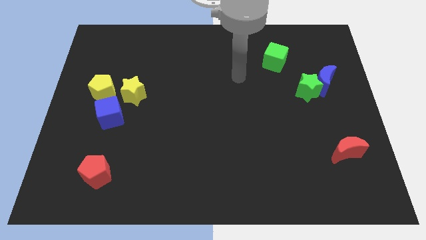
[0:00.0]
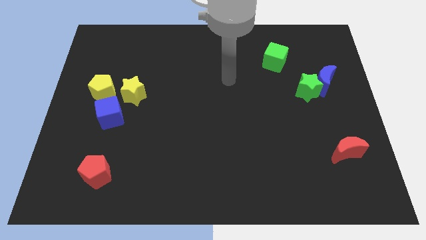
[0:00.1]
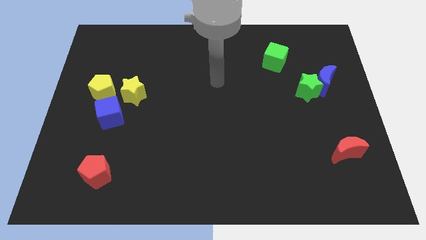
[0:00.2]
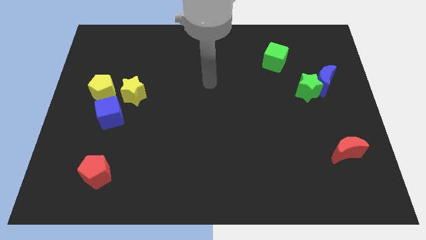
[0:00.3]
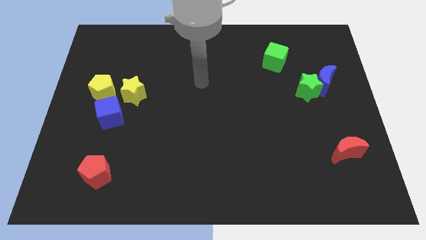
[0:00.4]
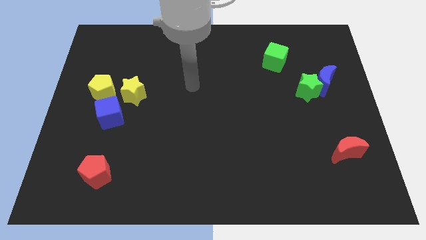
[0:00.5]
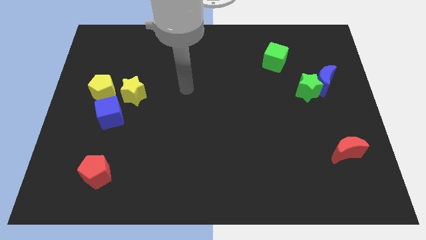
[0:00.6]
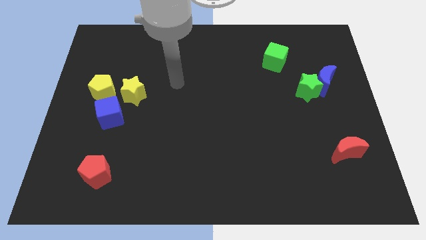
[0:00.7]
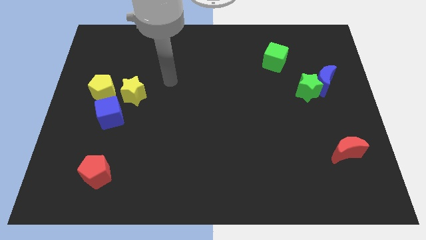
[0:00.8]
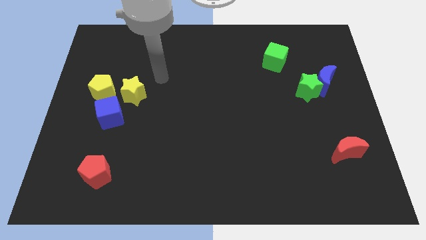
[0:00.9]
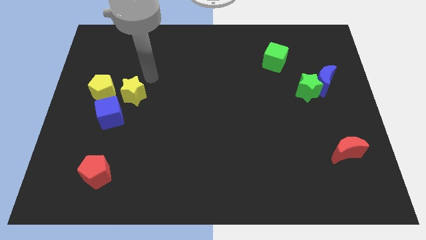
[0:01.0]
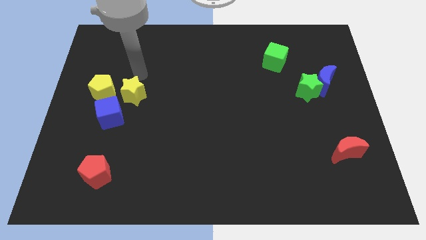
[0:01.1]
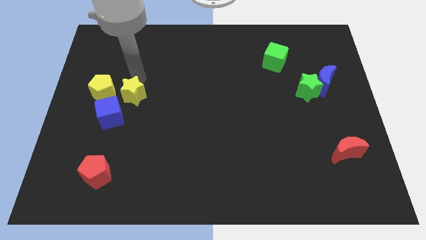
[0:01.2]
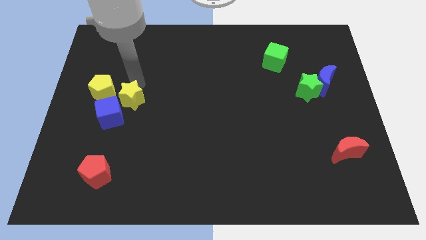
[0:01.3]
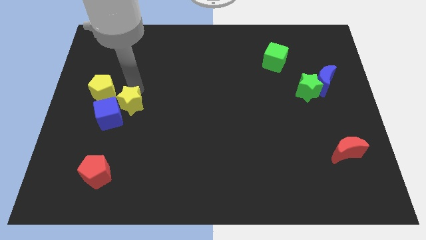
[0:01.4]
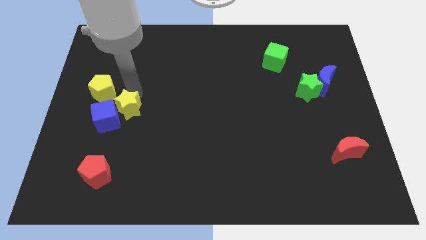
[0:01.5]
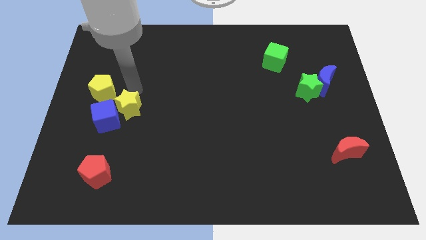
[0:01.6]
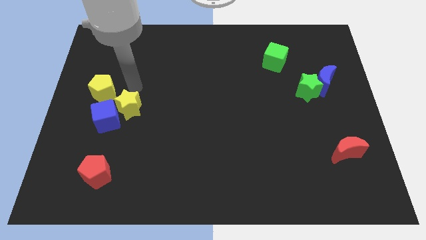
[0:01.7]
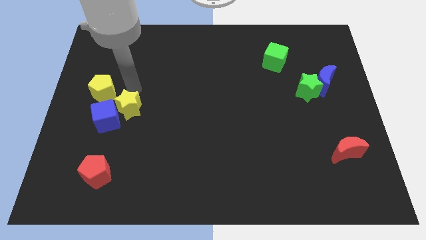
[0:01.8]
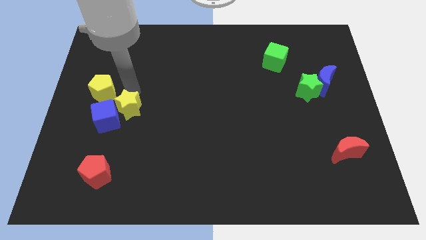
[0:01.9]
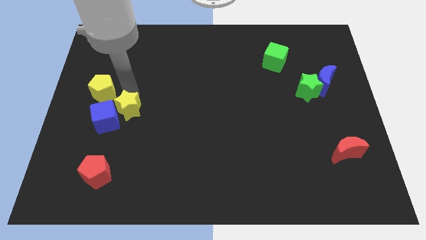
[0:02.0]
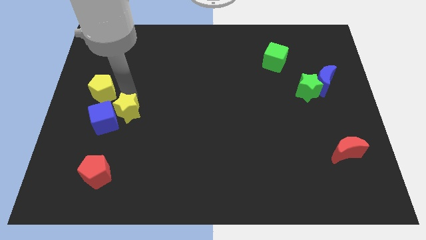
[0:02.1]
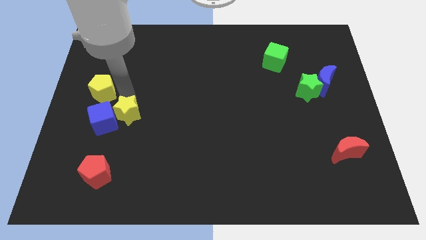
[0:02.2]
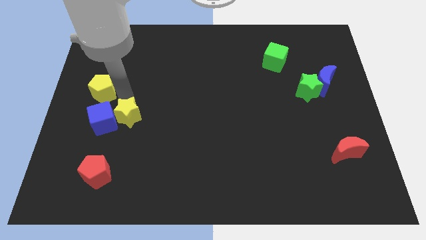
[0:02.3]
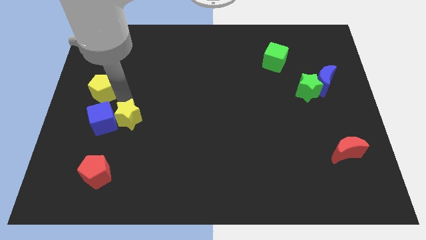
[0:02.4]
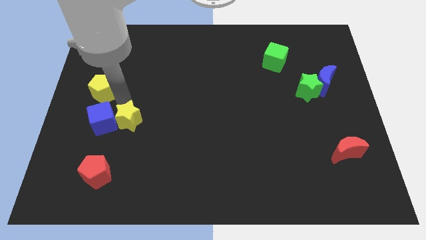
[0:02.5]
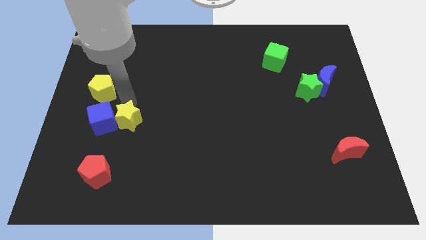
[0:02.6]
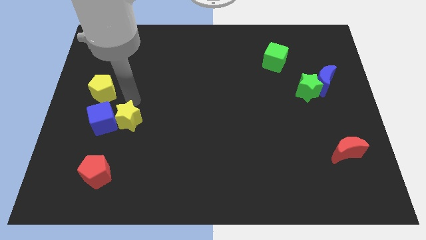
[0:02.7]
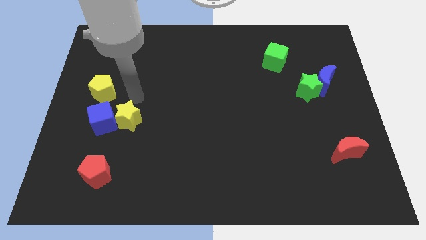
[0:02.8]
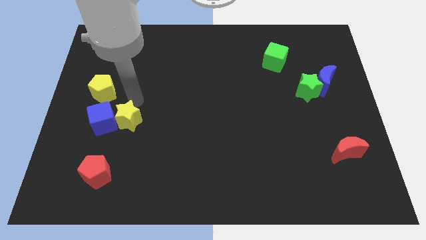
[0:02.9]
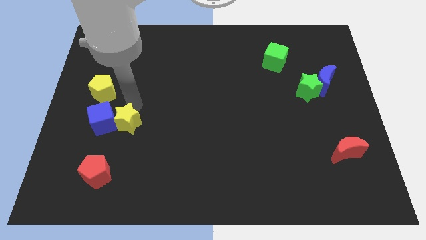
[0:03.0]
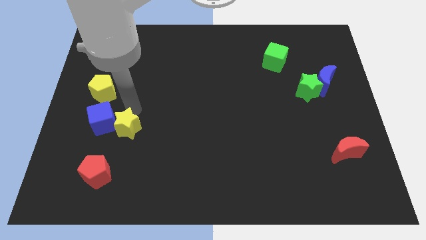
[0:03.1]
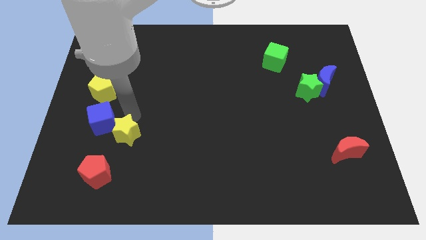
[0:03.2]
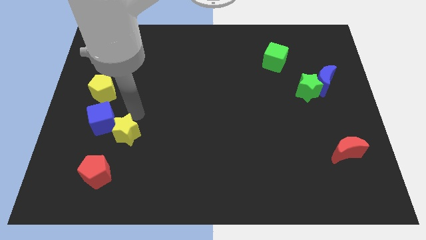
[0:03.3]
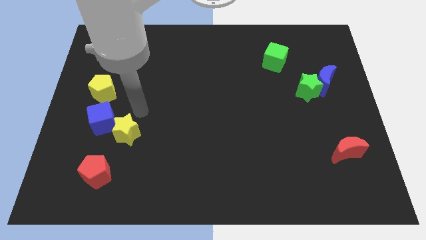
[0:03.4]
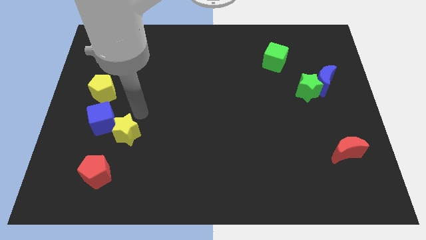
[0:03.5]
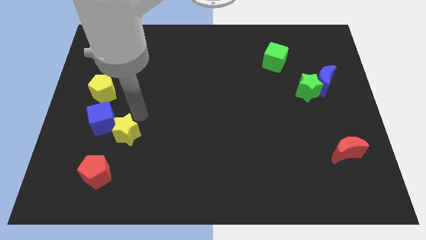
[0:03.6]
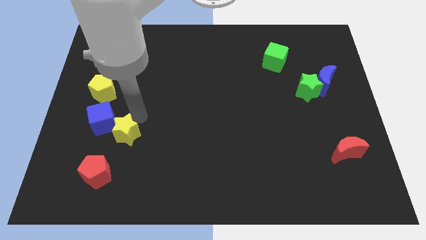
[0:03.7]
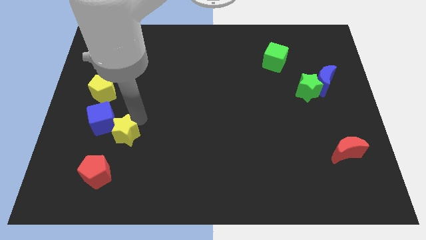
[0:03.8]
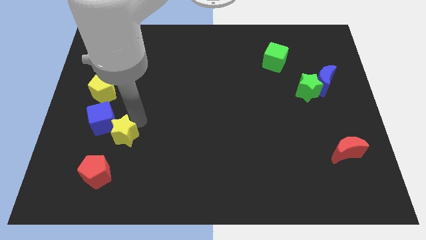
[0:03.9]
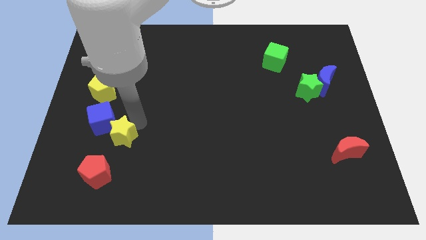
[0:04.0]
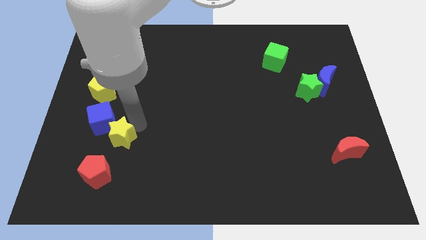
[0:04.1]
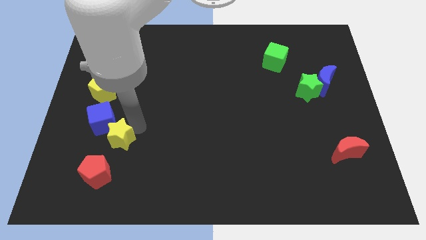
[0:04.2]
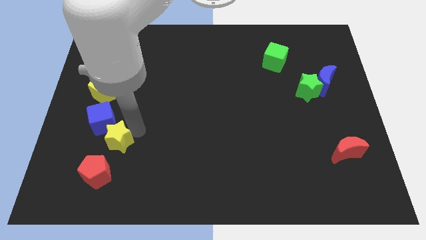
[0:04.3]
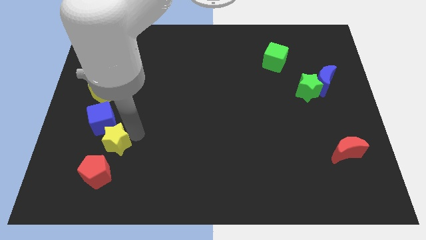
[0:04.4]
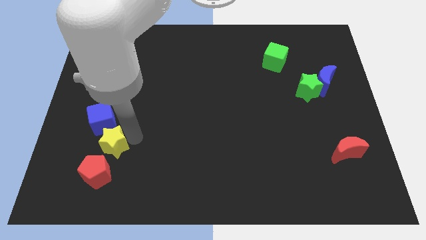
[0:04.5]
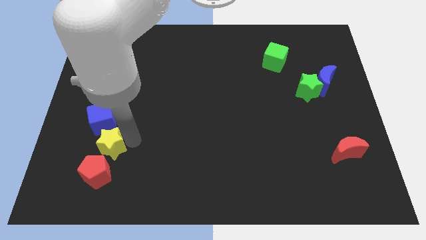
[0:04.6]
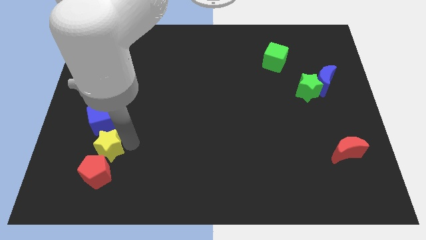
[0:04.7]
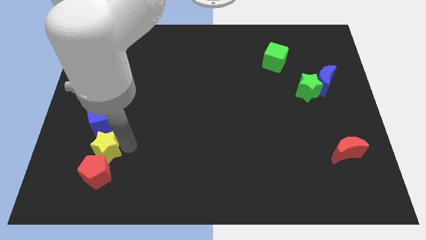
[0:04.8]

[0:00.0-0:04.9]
move the yellow star close to the red pentagon

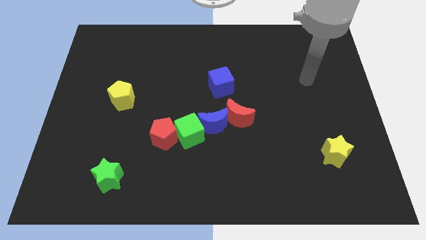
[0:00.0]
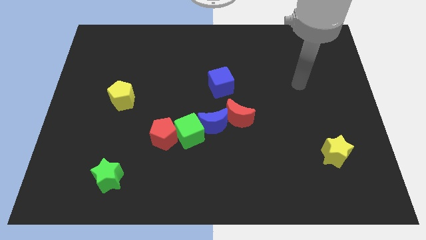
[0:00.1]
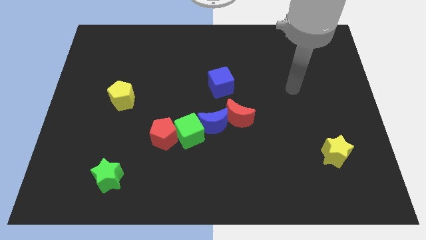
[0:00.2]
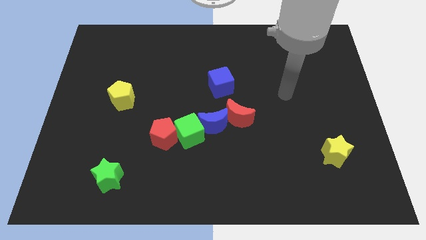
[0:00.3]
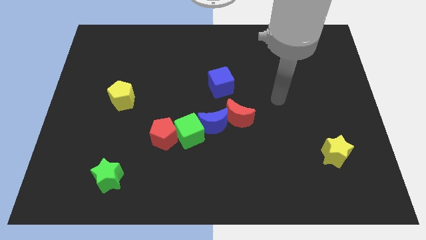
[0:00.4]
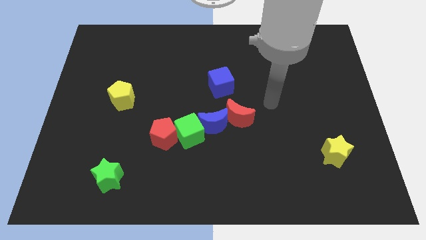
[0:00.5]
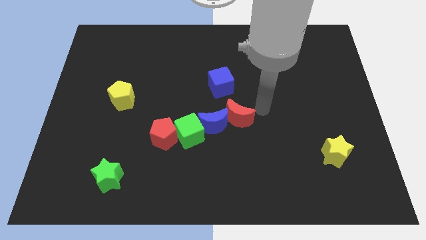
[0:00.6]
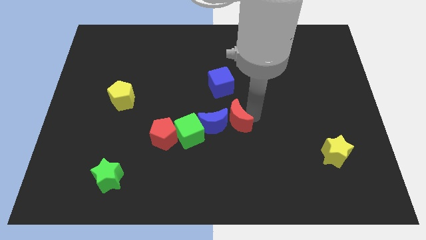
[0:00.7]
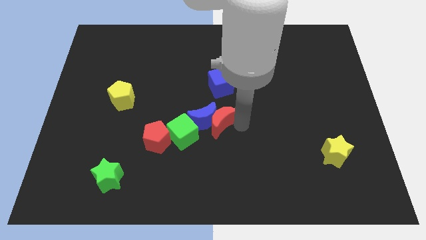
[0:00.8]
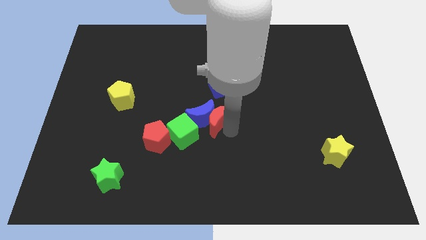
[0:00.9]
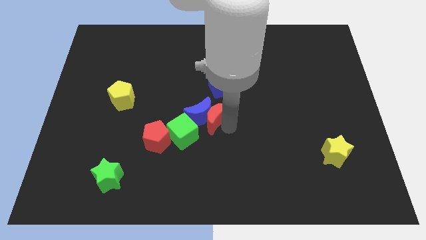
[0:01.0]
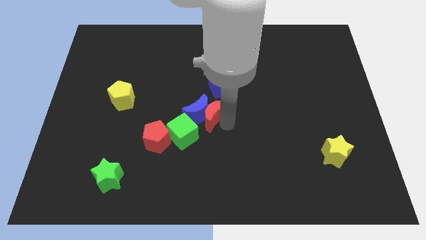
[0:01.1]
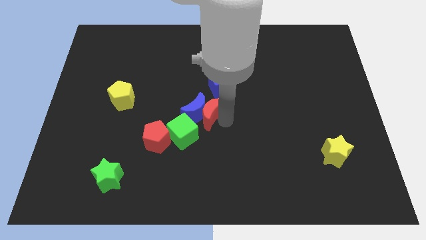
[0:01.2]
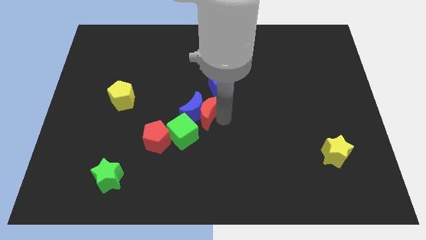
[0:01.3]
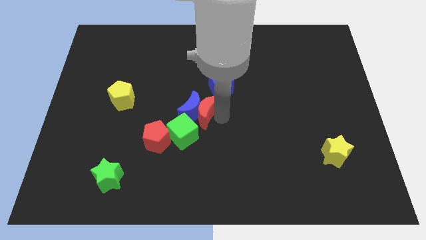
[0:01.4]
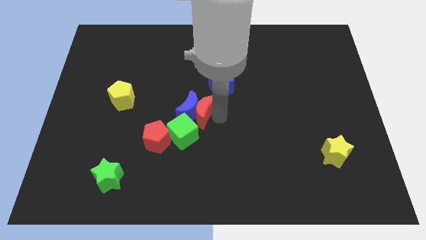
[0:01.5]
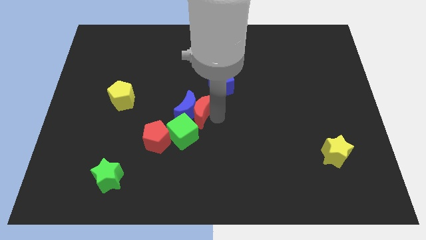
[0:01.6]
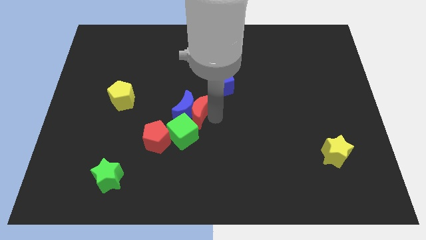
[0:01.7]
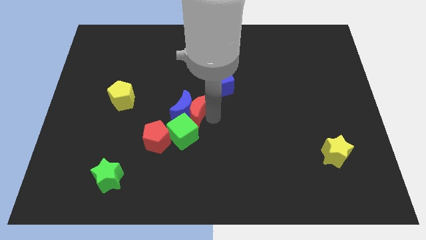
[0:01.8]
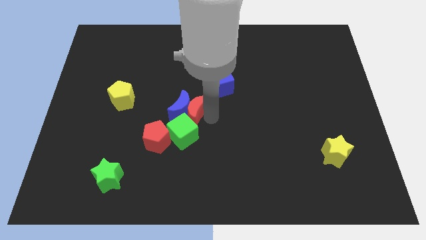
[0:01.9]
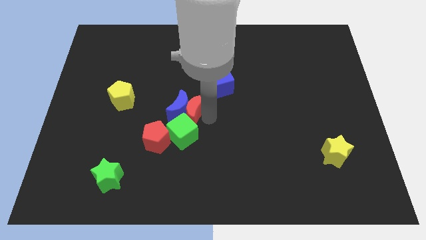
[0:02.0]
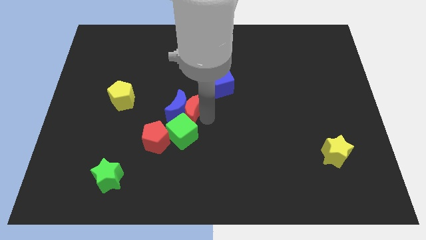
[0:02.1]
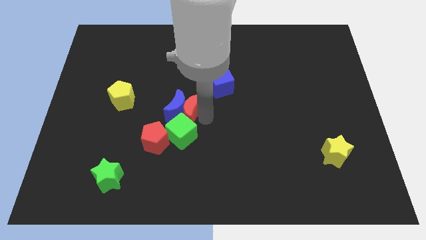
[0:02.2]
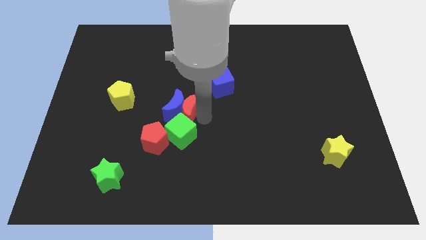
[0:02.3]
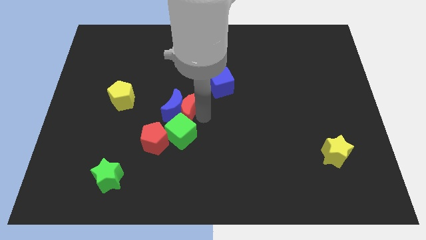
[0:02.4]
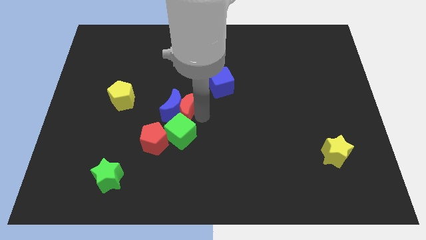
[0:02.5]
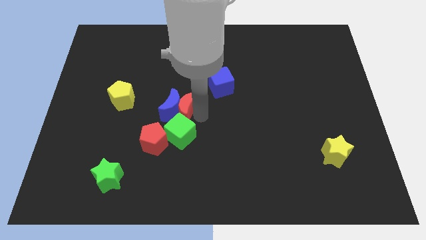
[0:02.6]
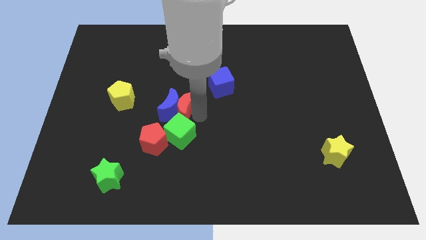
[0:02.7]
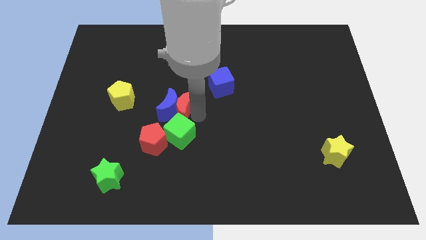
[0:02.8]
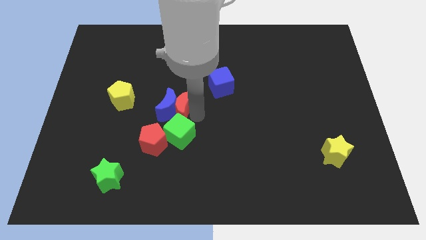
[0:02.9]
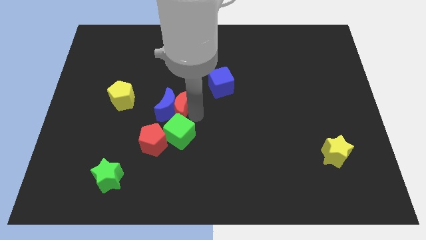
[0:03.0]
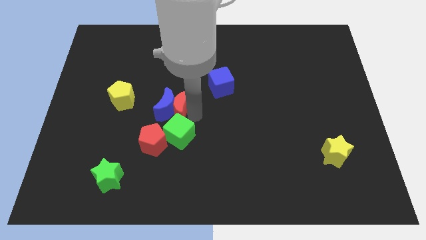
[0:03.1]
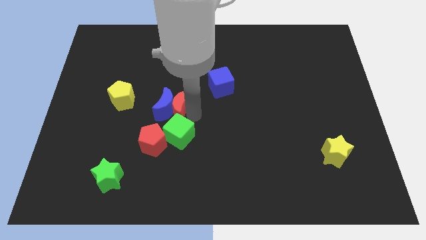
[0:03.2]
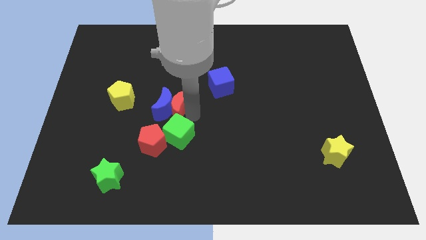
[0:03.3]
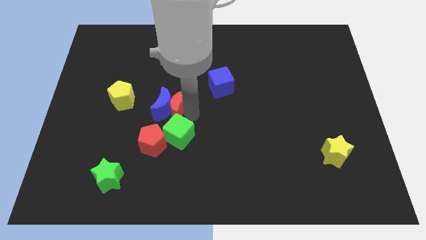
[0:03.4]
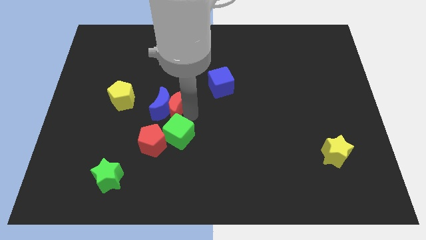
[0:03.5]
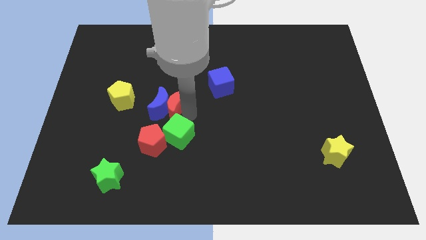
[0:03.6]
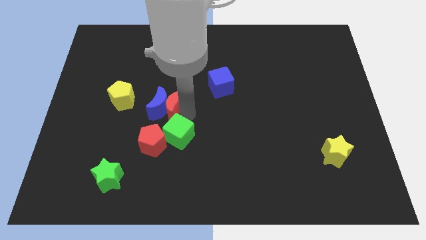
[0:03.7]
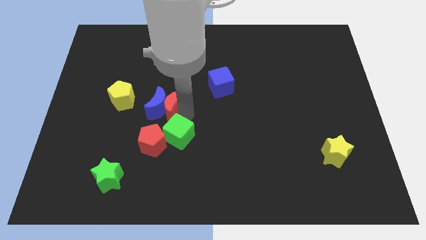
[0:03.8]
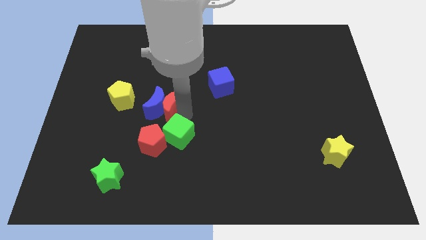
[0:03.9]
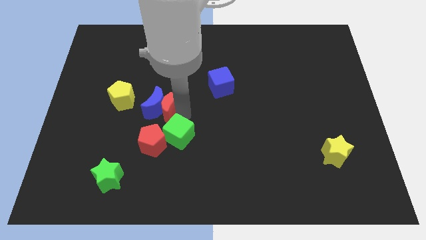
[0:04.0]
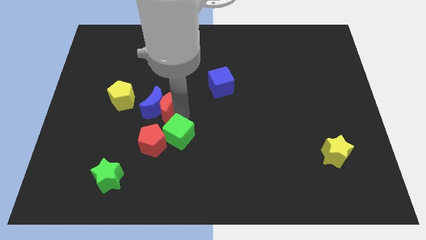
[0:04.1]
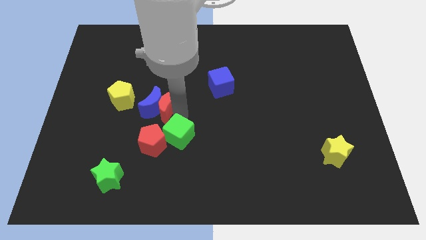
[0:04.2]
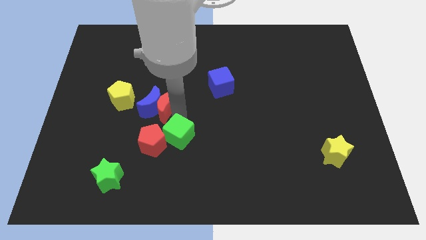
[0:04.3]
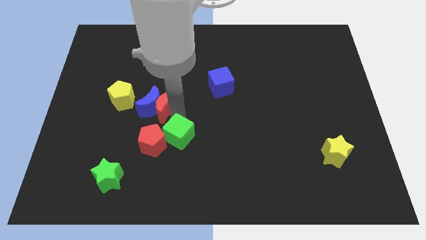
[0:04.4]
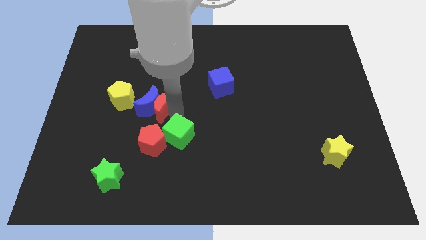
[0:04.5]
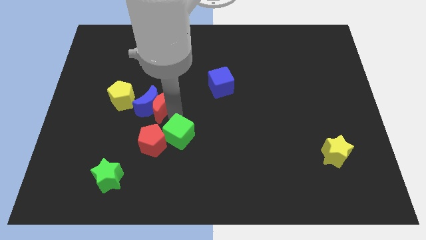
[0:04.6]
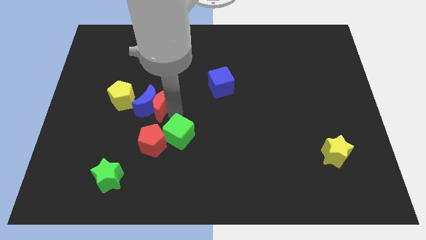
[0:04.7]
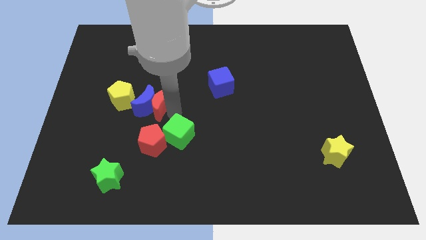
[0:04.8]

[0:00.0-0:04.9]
slide the blue moon next to the yellow pentagon
